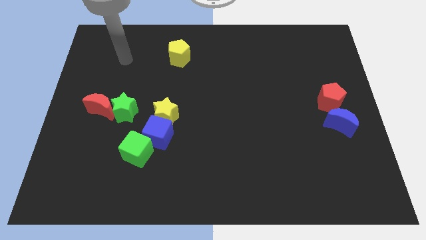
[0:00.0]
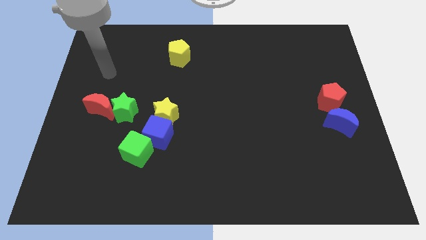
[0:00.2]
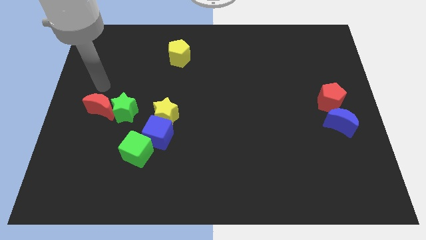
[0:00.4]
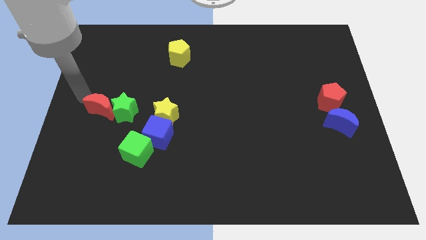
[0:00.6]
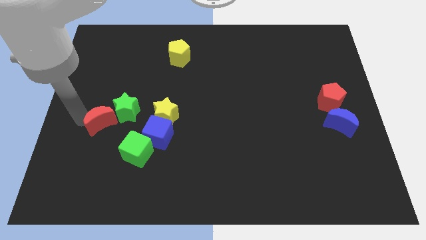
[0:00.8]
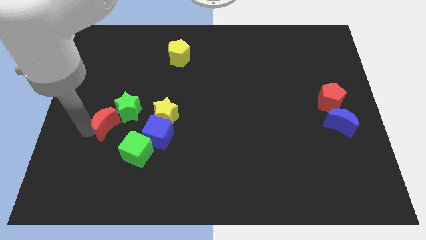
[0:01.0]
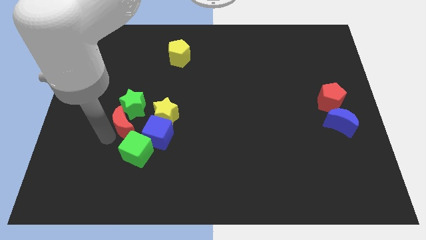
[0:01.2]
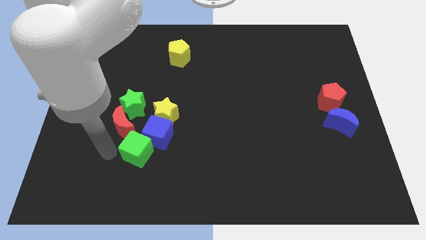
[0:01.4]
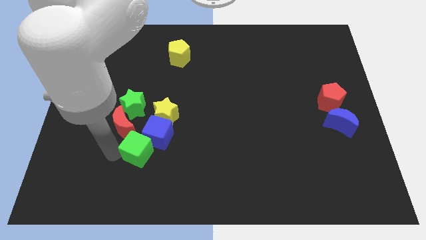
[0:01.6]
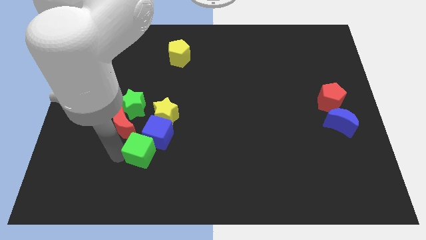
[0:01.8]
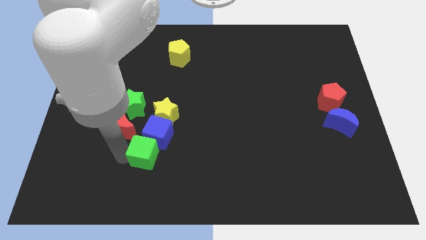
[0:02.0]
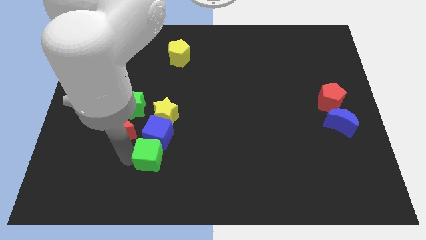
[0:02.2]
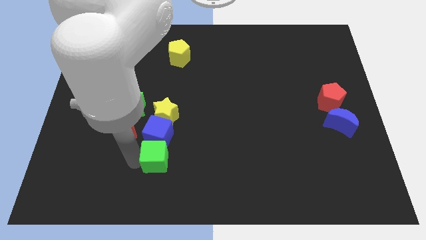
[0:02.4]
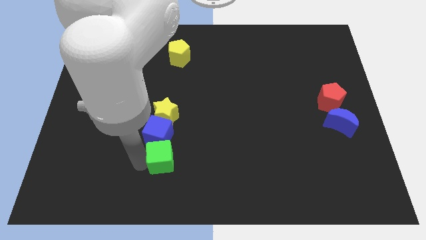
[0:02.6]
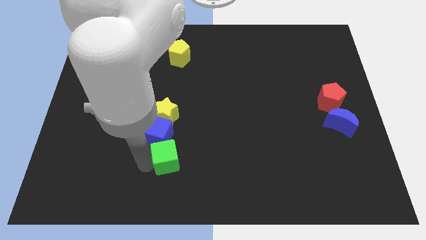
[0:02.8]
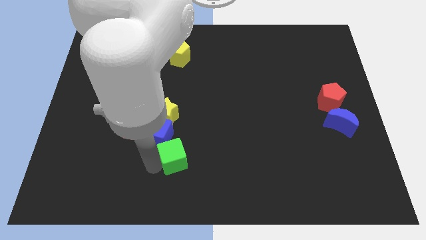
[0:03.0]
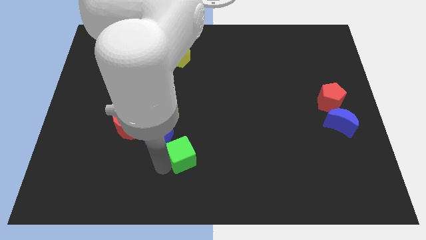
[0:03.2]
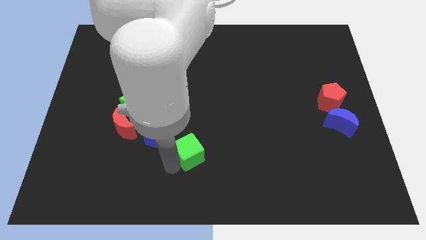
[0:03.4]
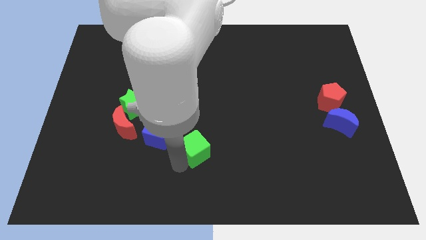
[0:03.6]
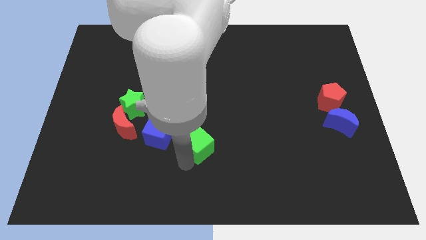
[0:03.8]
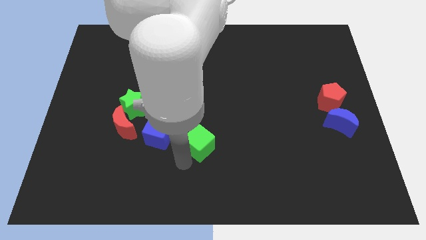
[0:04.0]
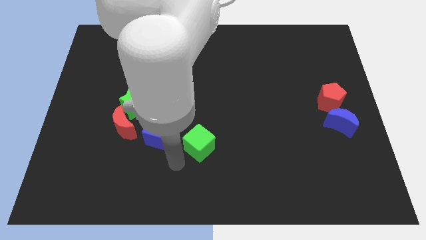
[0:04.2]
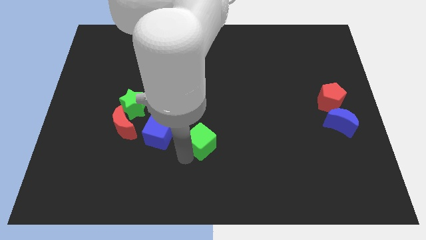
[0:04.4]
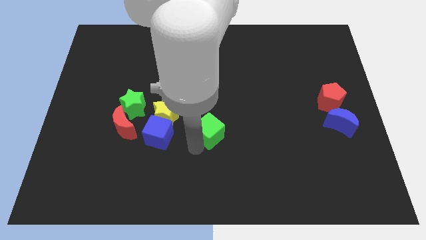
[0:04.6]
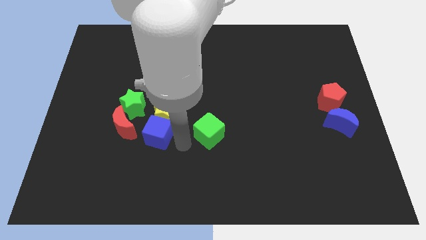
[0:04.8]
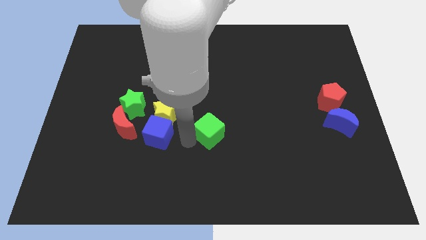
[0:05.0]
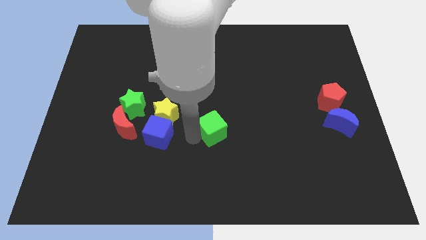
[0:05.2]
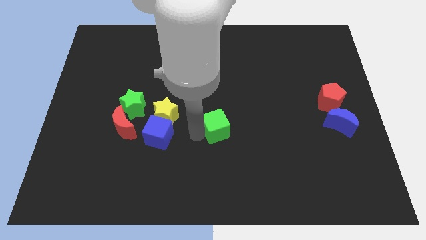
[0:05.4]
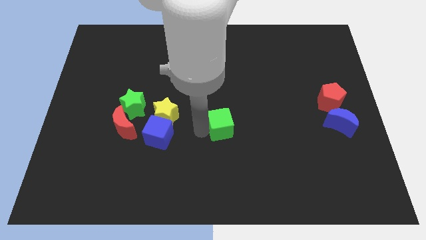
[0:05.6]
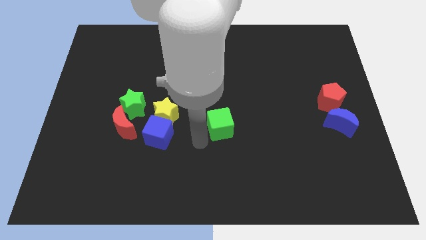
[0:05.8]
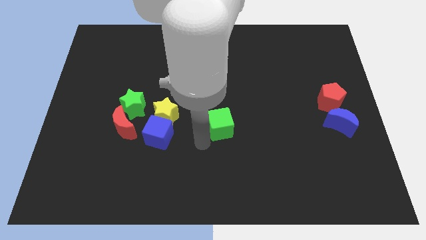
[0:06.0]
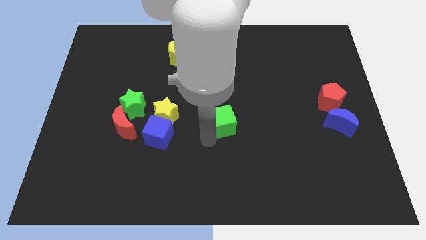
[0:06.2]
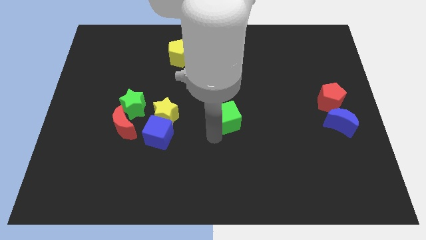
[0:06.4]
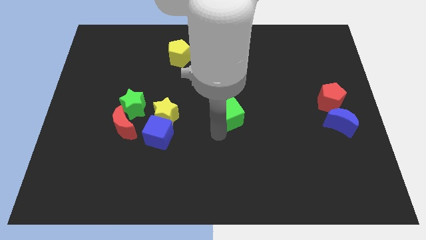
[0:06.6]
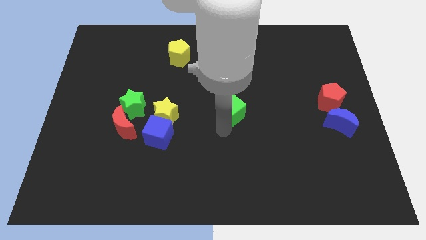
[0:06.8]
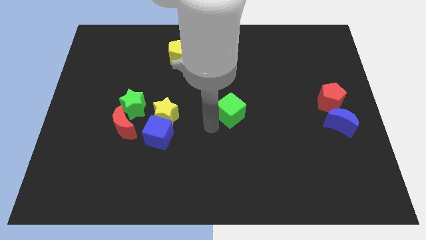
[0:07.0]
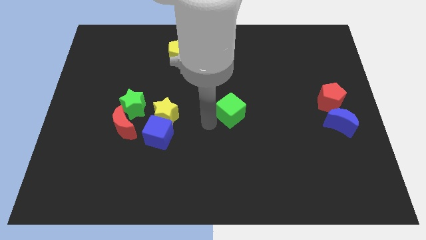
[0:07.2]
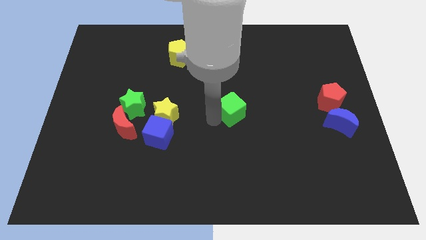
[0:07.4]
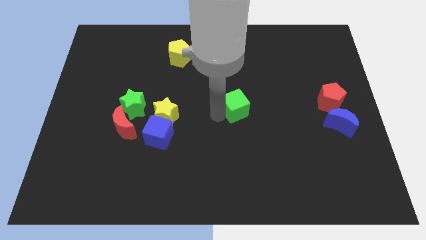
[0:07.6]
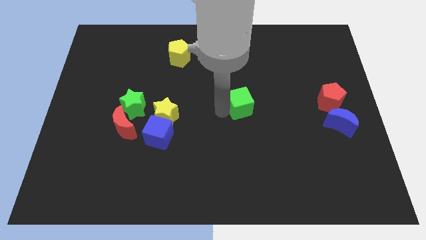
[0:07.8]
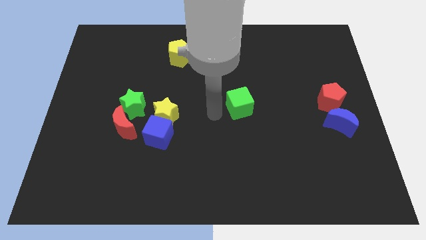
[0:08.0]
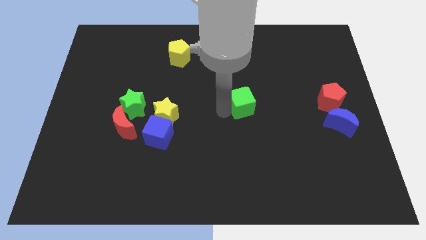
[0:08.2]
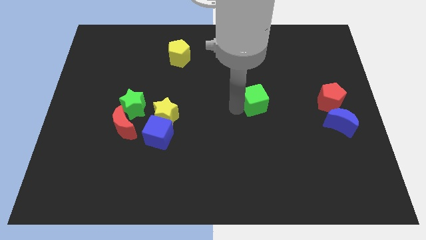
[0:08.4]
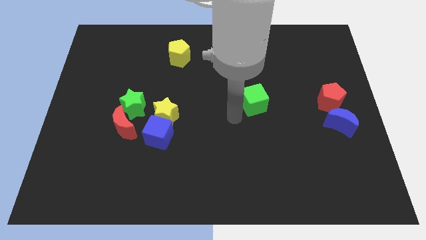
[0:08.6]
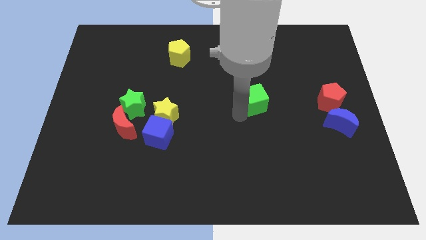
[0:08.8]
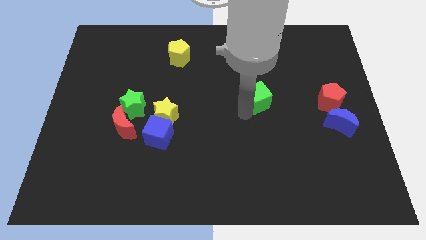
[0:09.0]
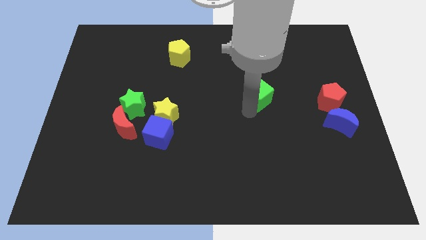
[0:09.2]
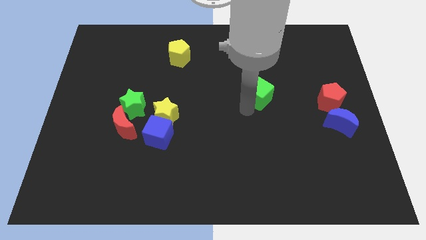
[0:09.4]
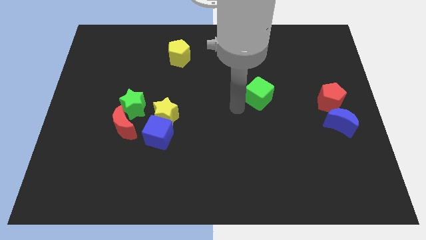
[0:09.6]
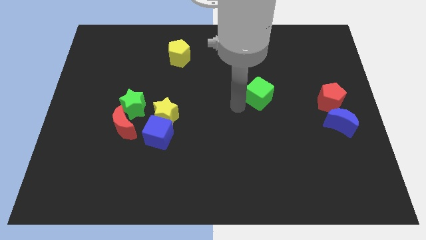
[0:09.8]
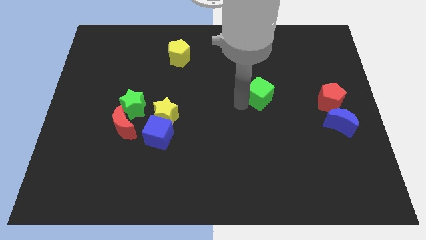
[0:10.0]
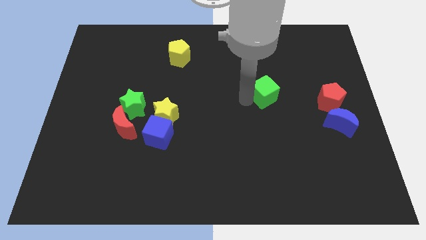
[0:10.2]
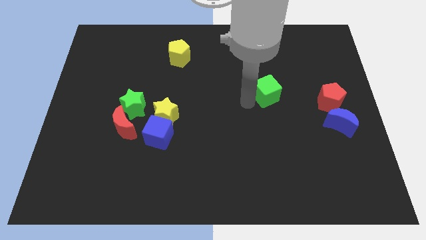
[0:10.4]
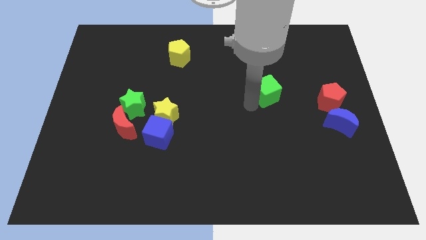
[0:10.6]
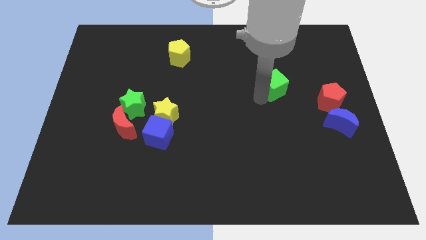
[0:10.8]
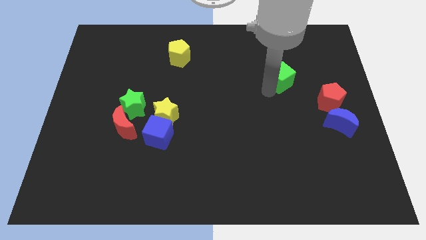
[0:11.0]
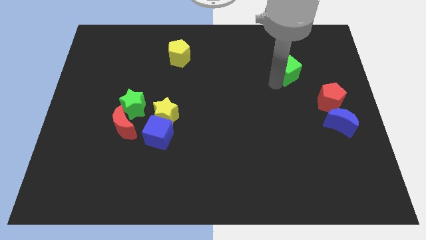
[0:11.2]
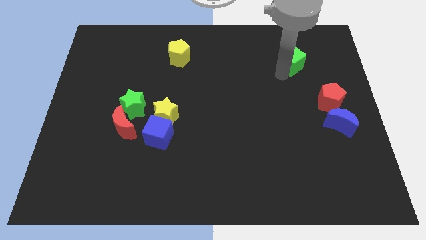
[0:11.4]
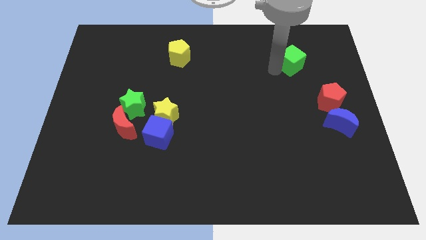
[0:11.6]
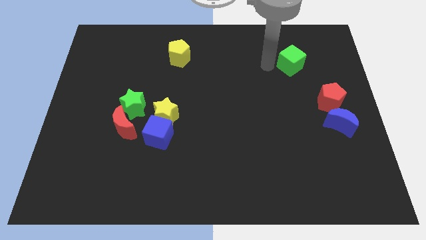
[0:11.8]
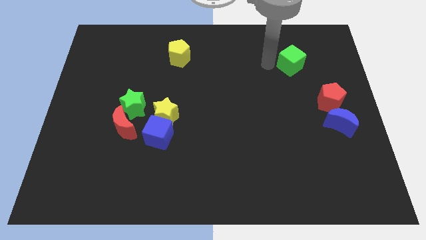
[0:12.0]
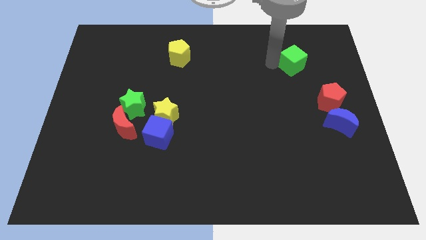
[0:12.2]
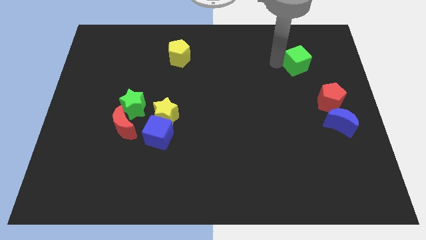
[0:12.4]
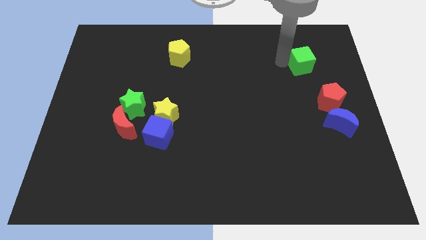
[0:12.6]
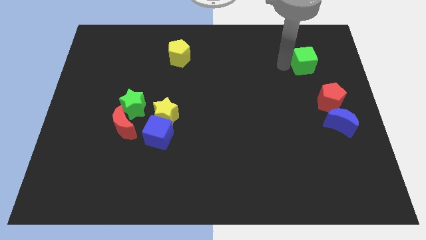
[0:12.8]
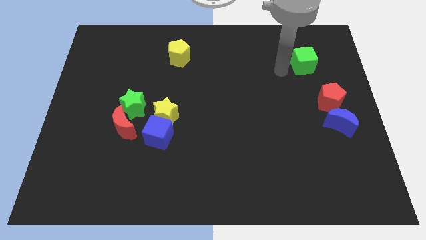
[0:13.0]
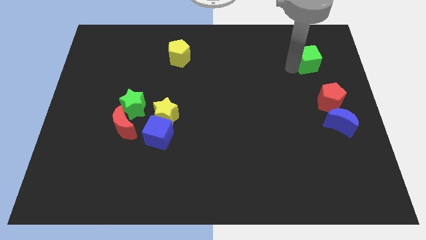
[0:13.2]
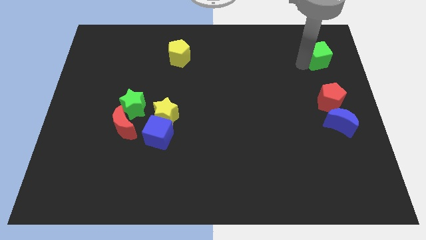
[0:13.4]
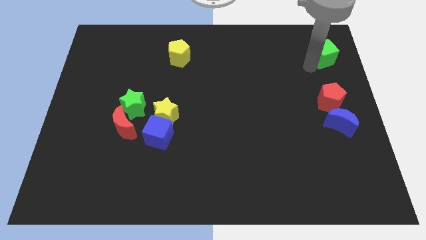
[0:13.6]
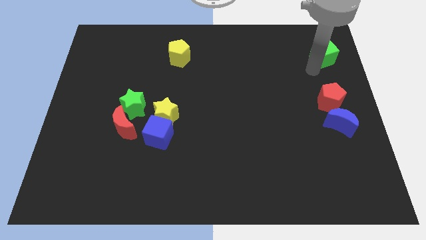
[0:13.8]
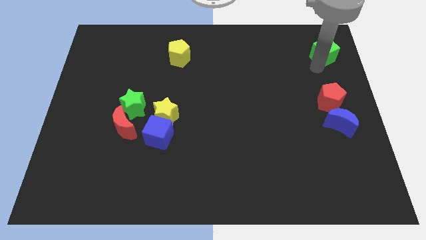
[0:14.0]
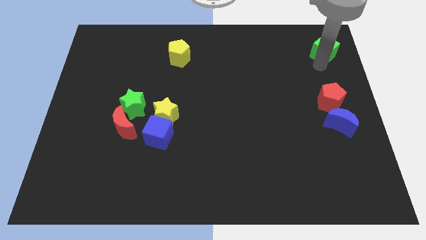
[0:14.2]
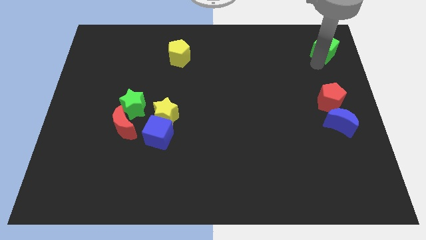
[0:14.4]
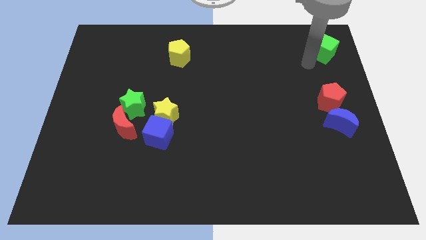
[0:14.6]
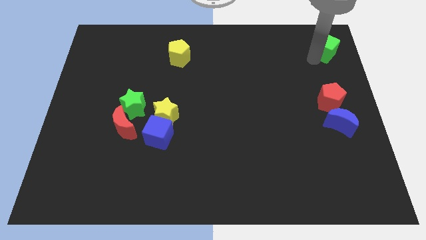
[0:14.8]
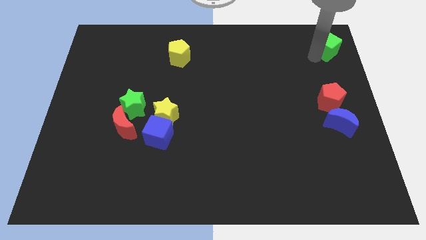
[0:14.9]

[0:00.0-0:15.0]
push the green cube to the top right of the board
